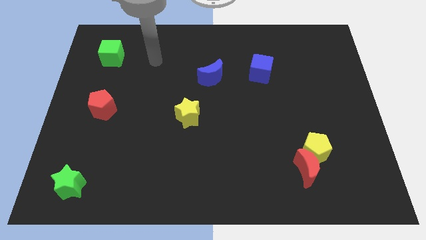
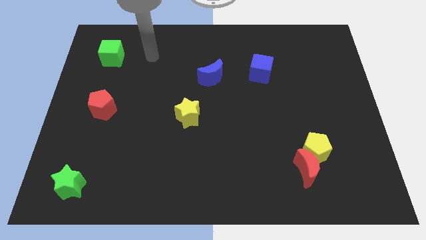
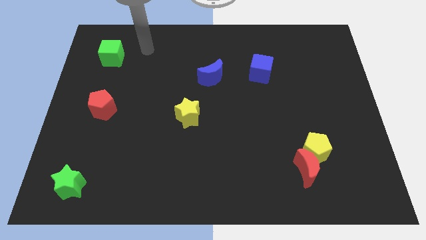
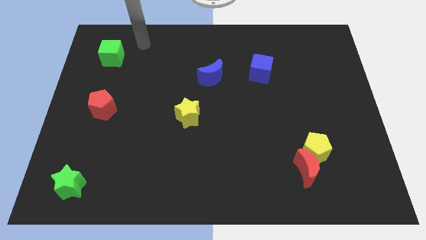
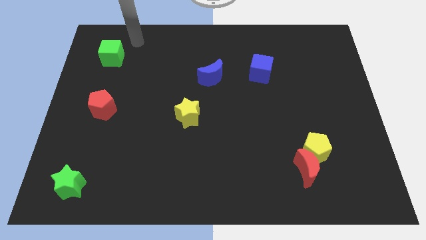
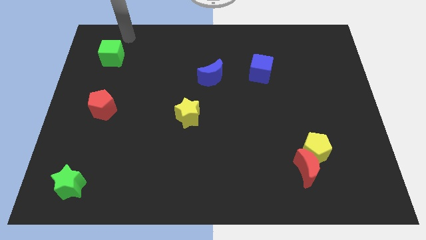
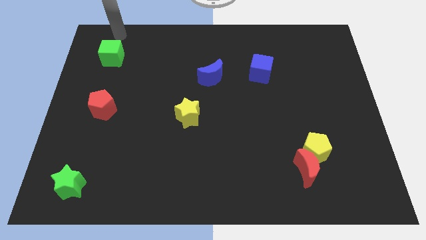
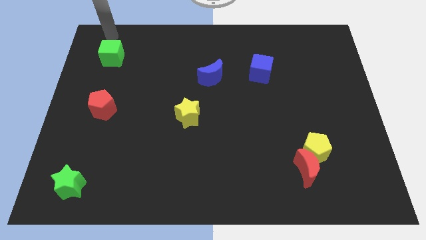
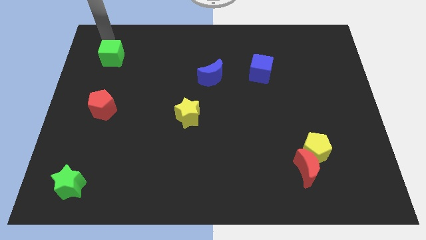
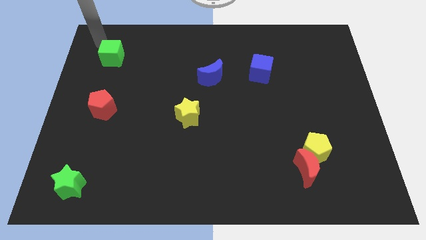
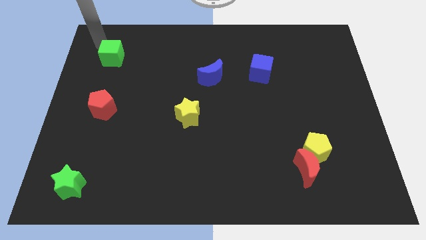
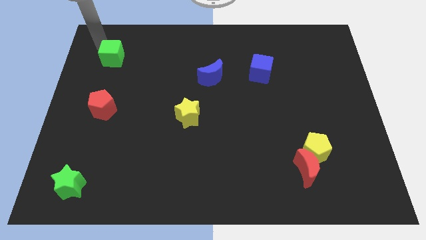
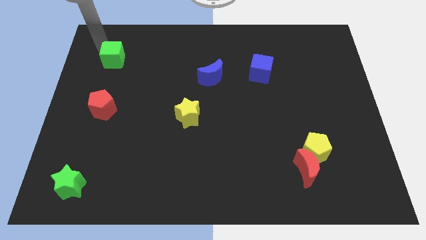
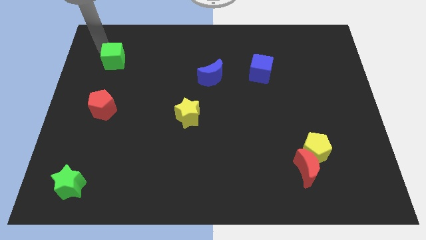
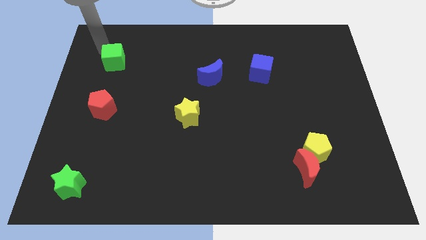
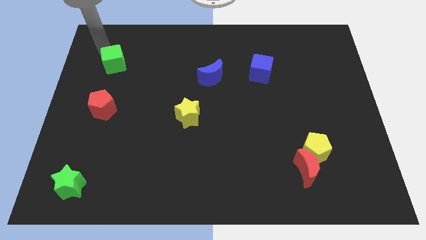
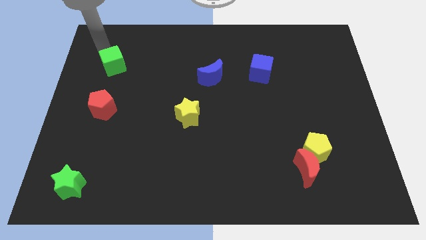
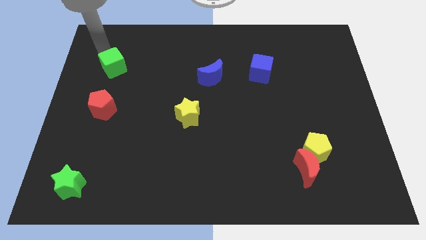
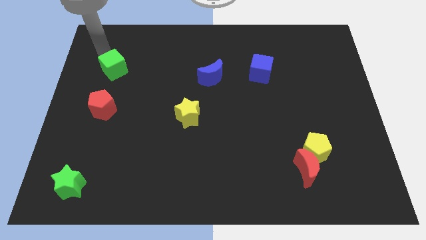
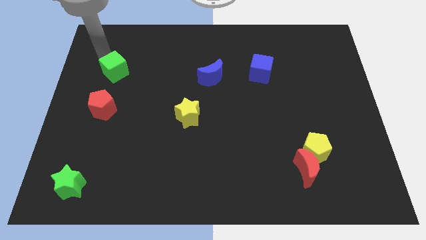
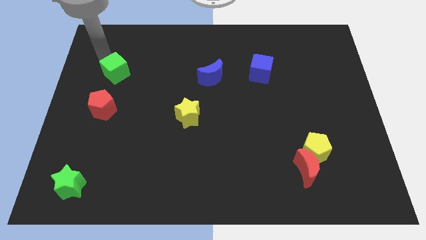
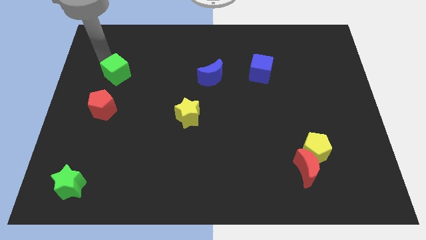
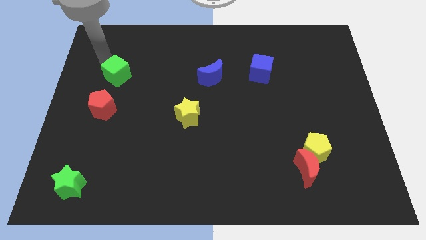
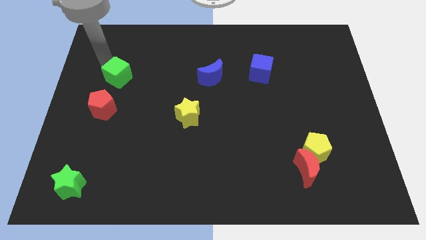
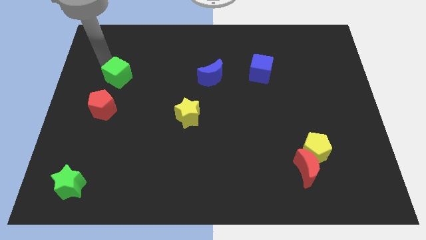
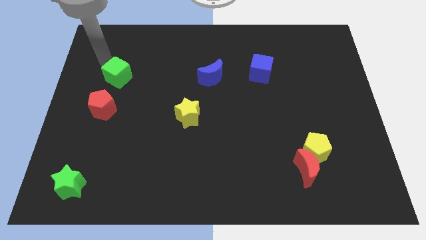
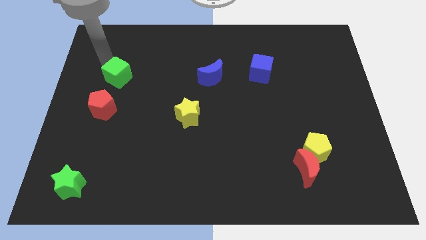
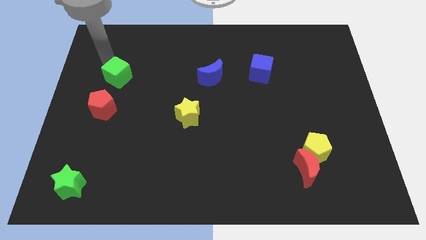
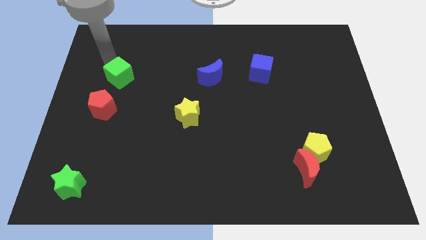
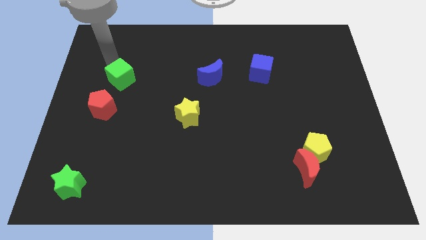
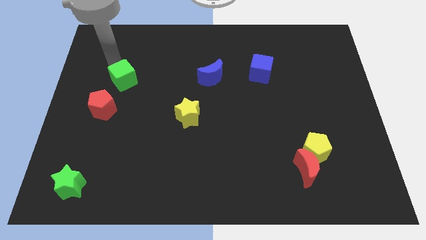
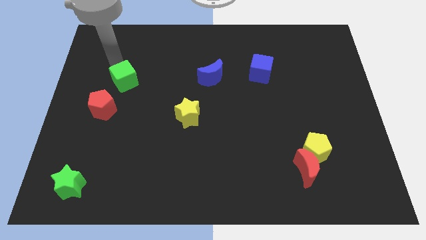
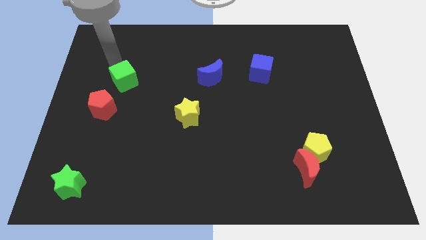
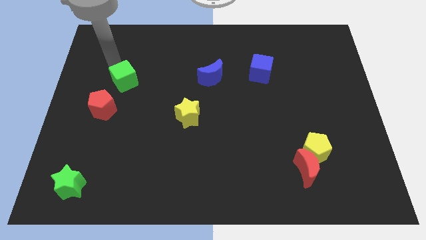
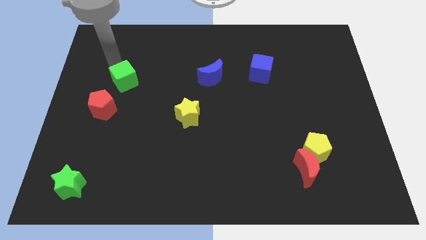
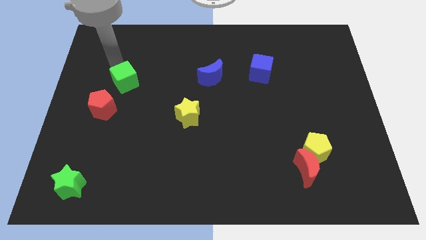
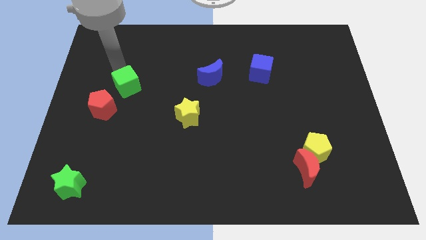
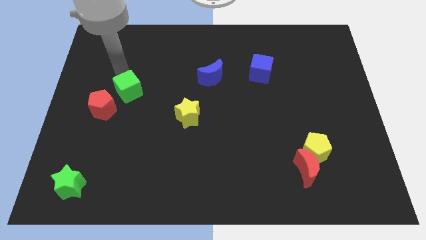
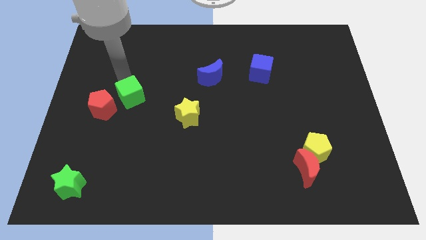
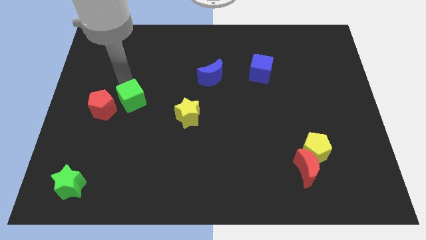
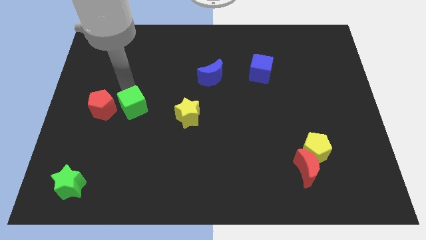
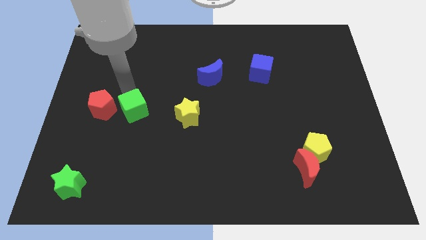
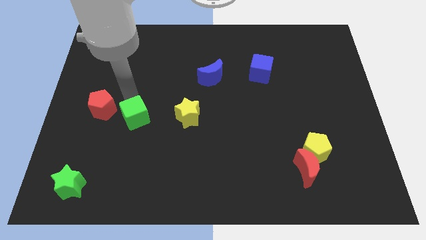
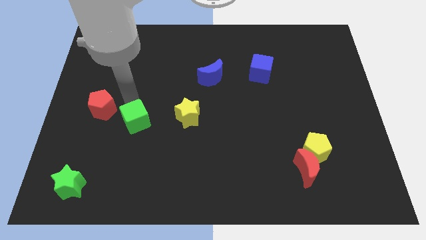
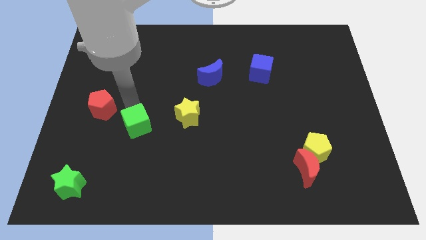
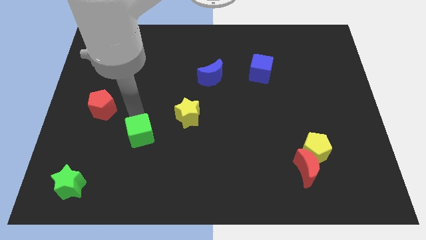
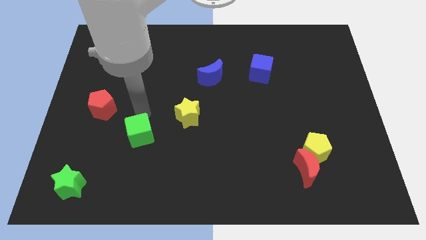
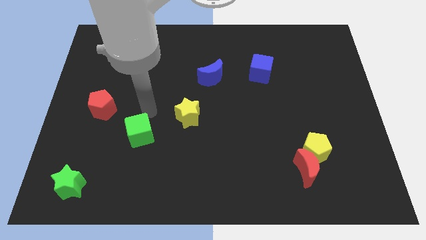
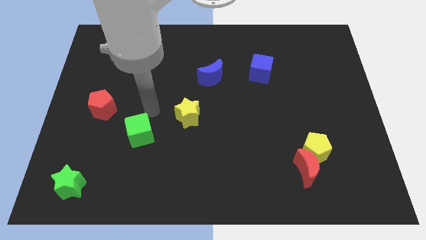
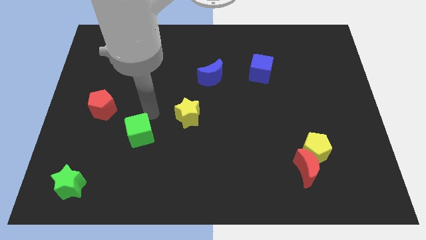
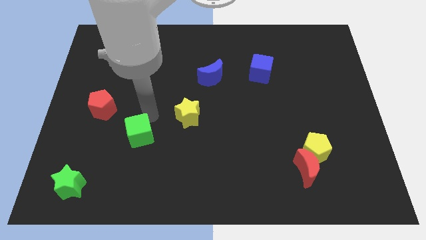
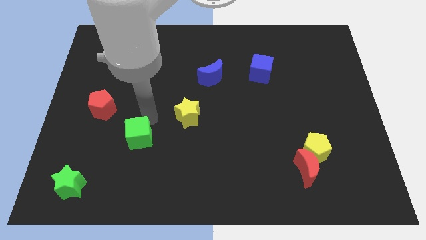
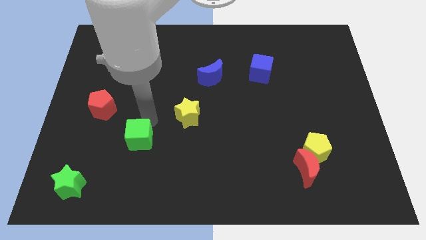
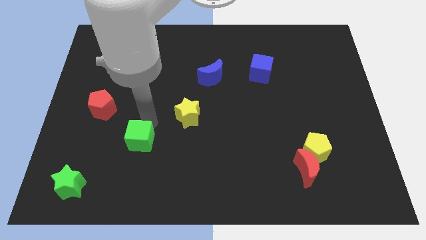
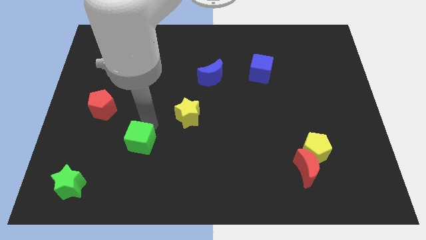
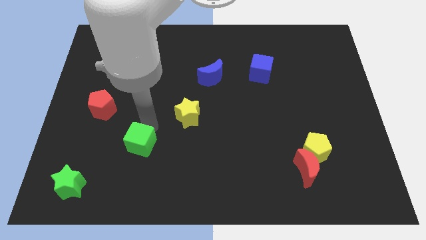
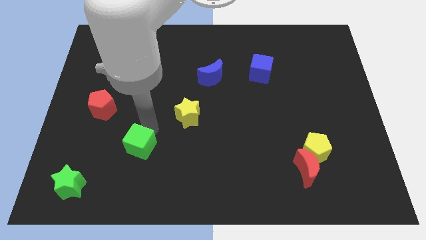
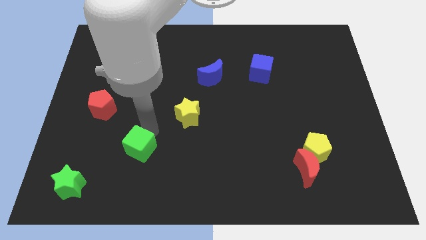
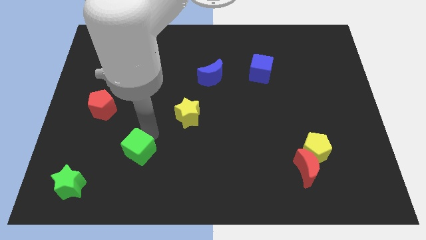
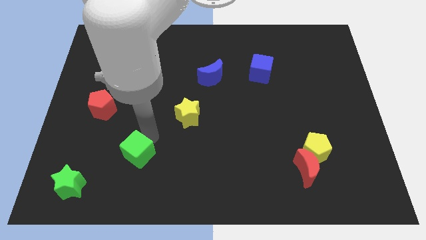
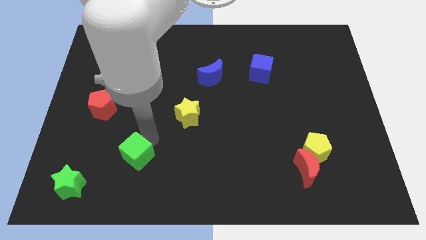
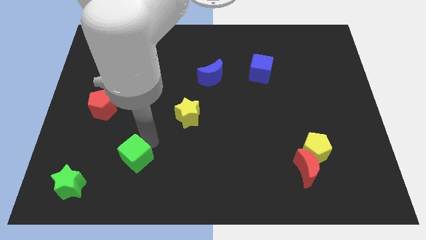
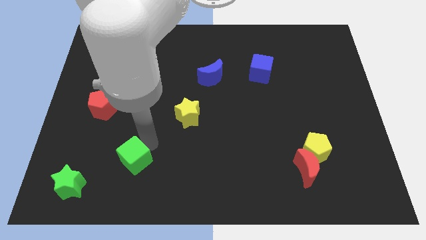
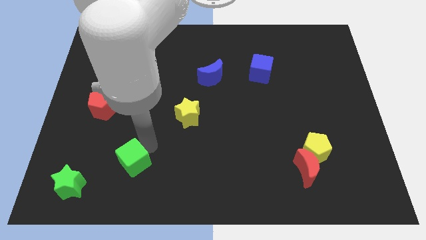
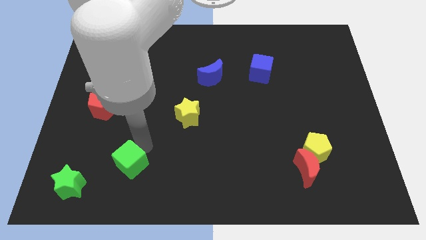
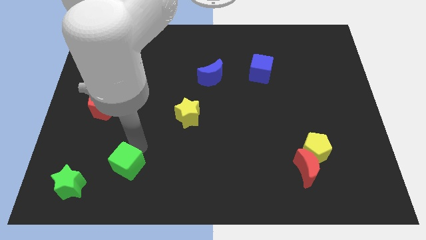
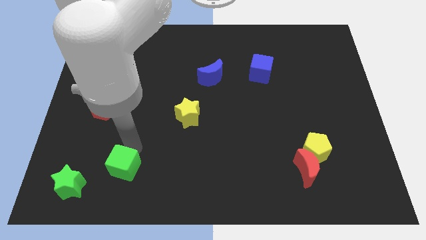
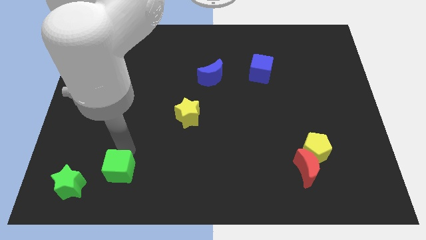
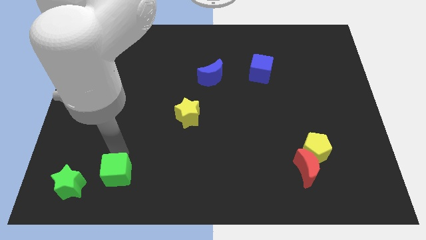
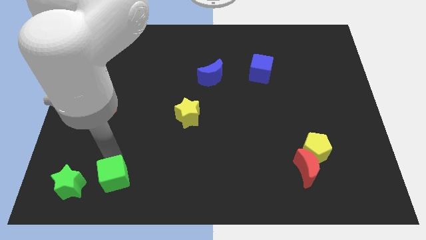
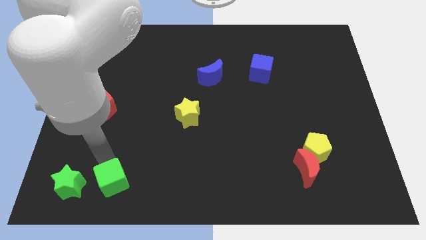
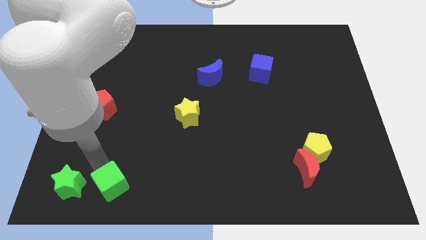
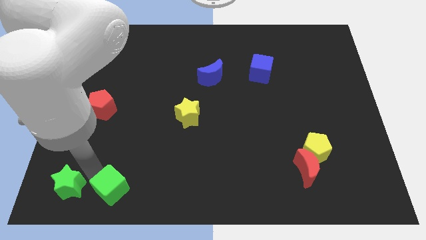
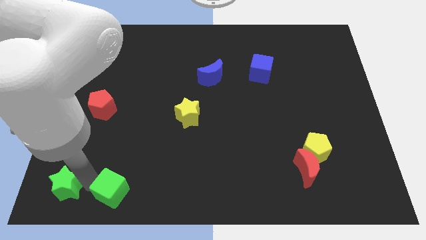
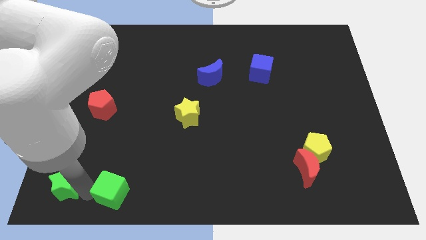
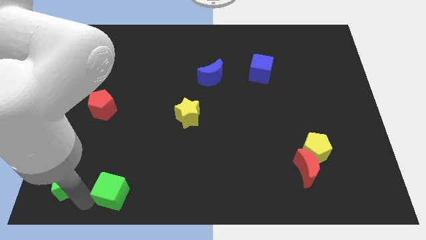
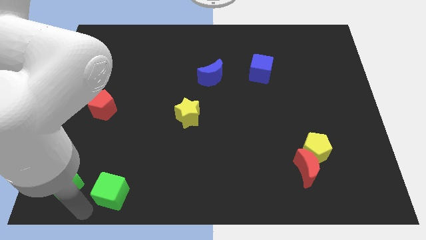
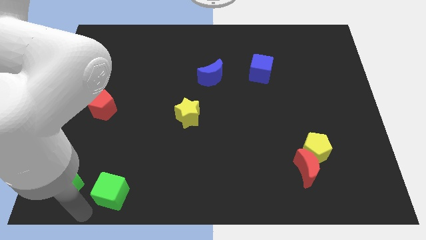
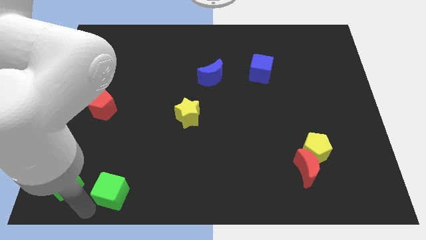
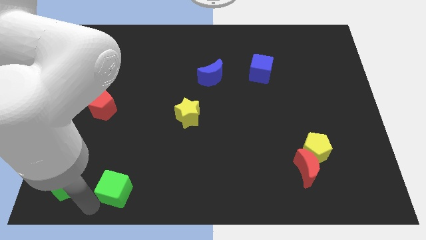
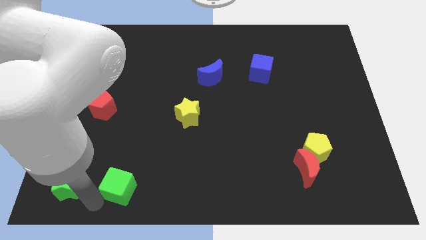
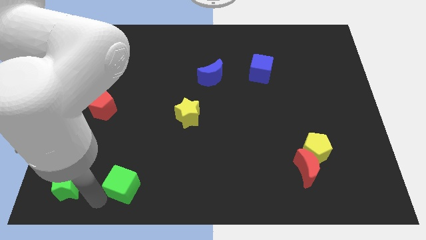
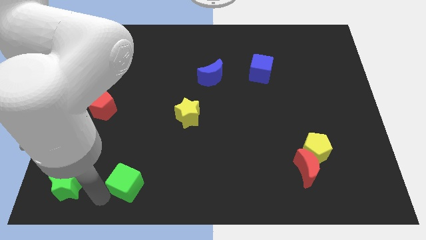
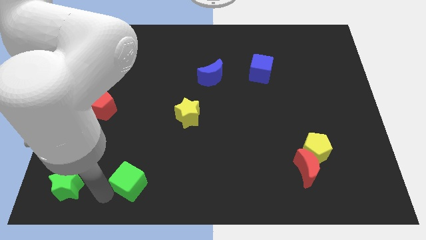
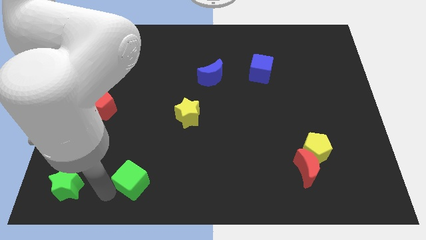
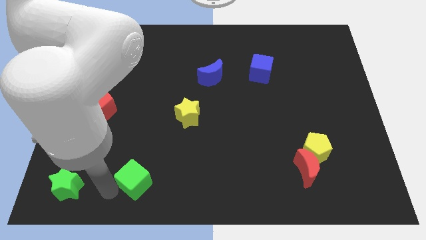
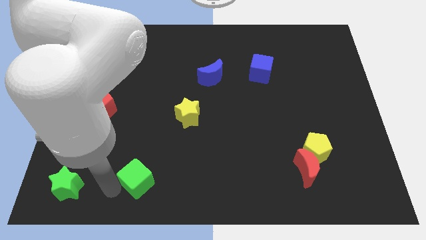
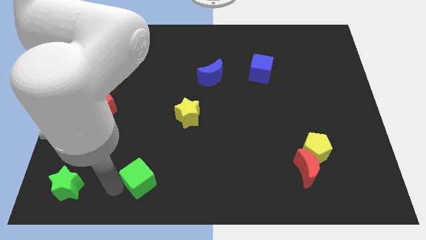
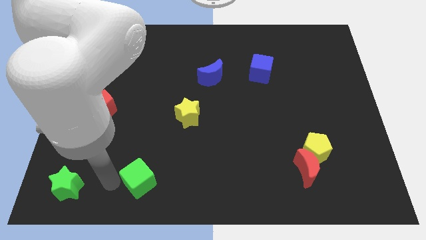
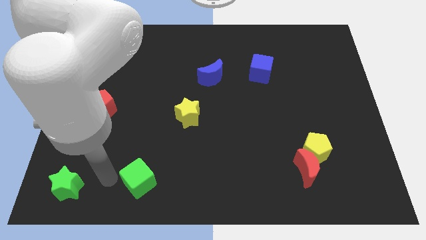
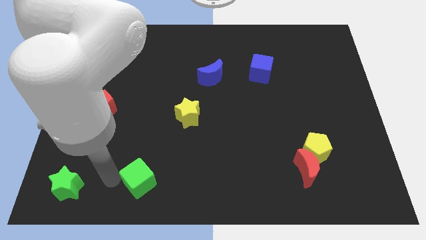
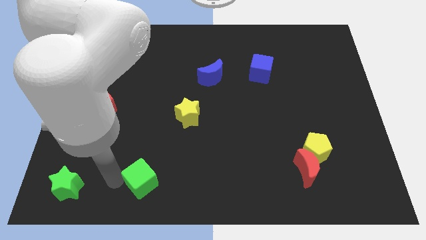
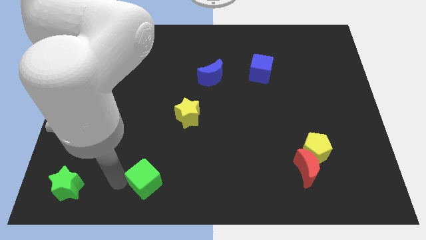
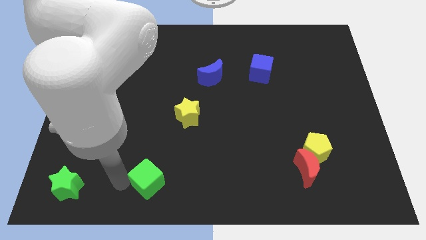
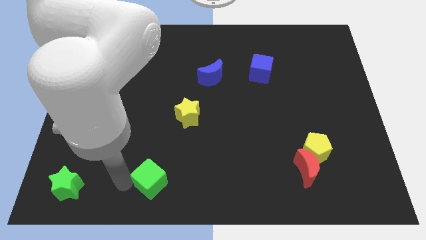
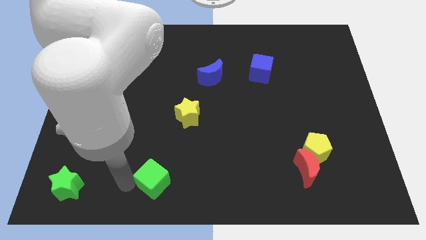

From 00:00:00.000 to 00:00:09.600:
push the green cube to the bottom
